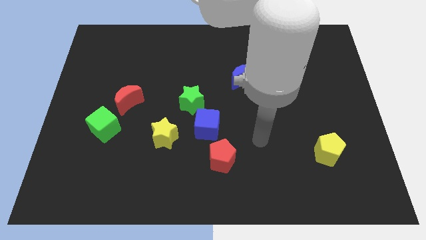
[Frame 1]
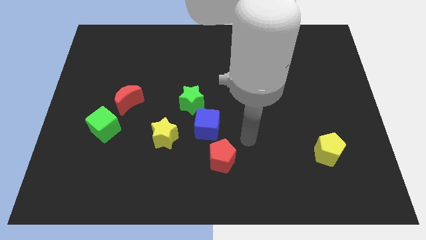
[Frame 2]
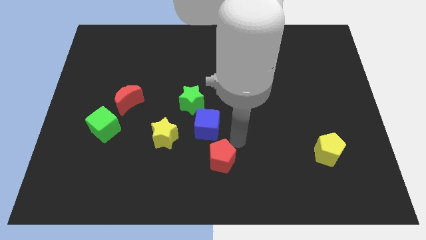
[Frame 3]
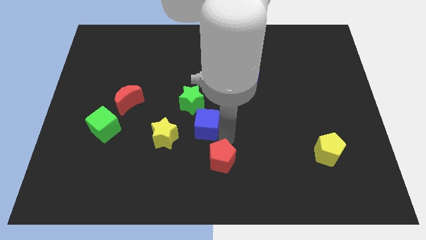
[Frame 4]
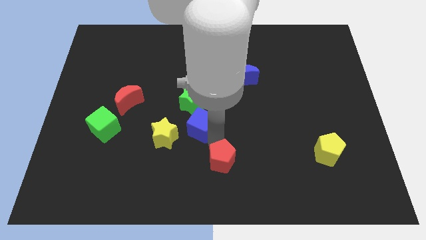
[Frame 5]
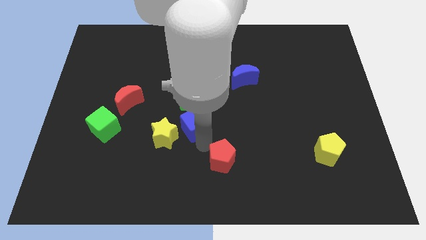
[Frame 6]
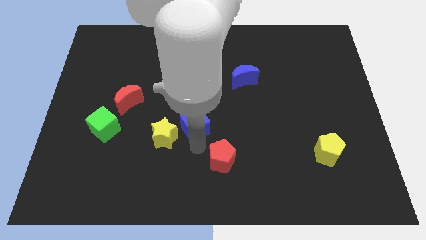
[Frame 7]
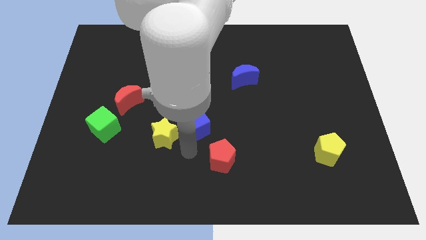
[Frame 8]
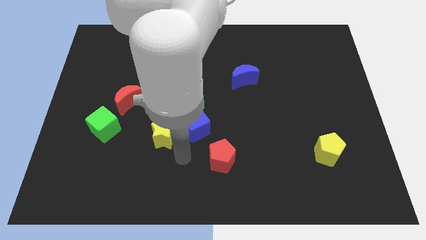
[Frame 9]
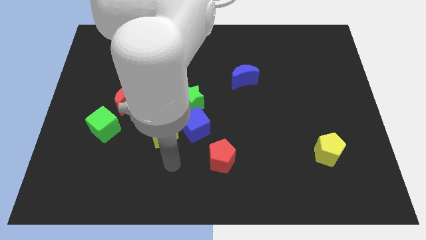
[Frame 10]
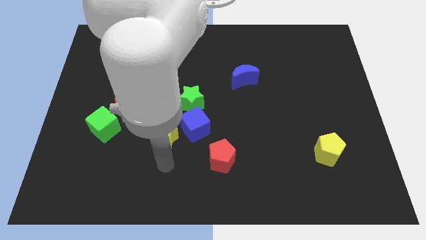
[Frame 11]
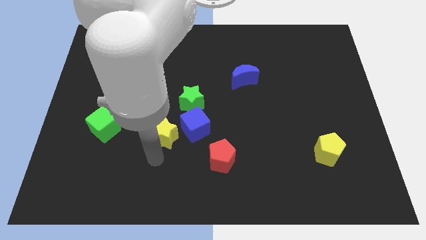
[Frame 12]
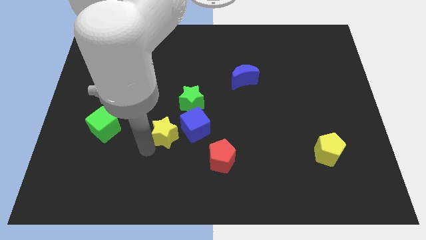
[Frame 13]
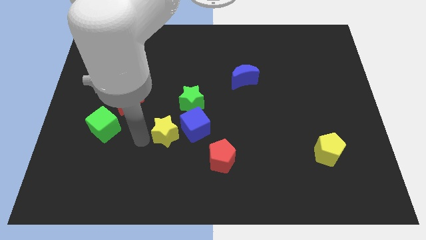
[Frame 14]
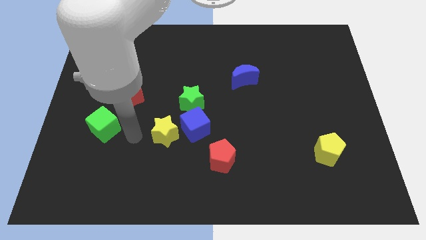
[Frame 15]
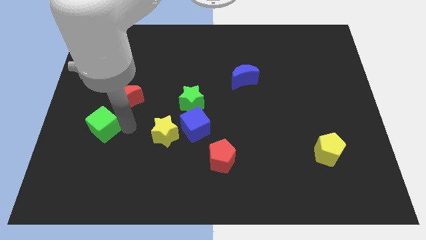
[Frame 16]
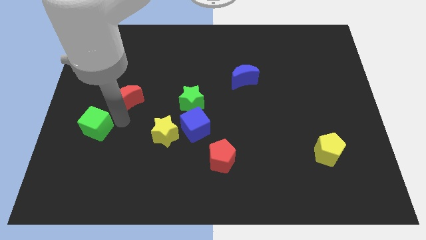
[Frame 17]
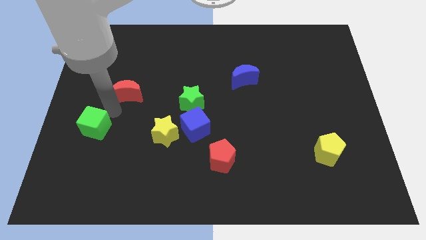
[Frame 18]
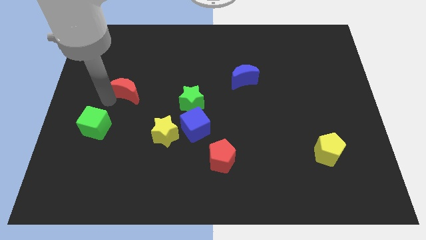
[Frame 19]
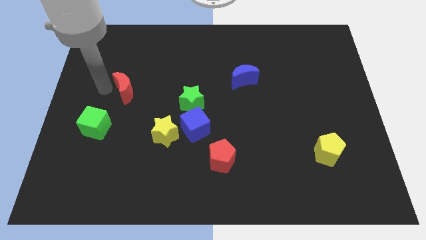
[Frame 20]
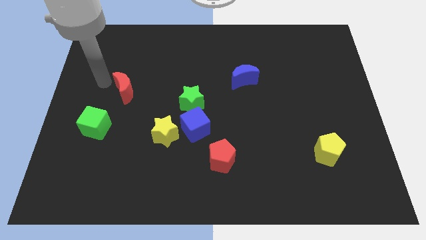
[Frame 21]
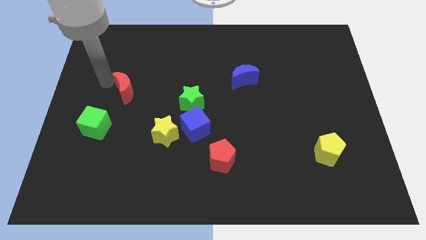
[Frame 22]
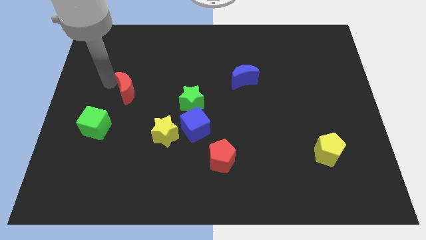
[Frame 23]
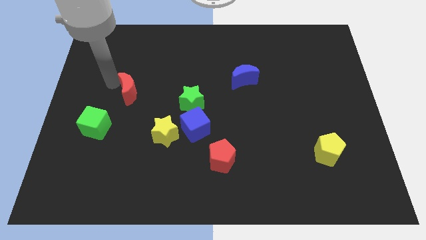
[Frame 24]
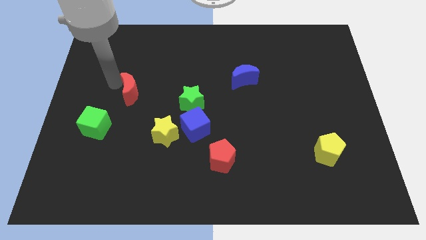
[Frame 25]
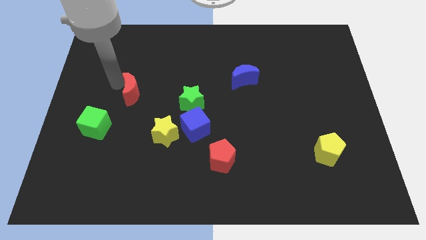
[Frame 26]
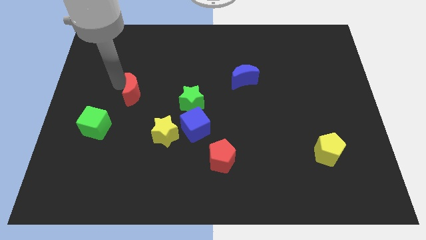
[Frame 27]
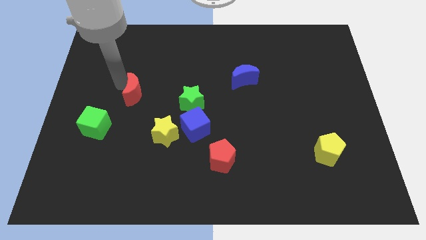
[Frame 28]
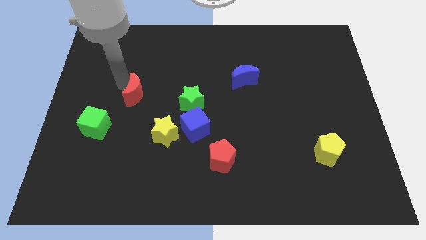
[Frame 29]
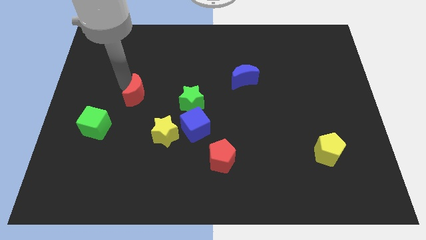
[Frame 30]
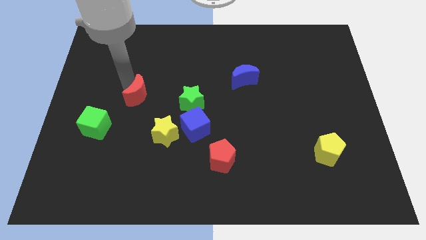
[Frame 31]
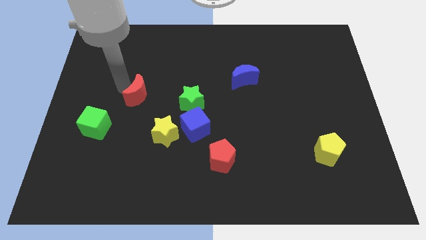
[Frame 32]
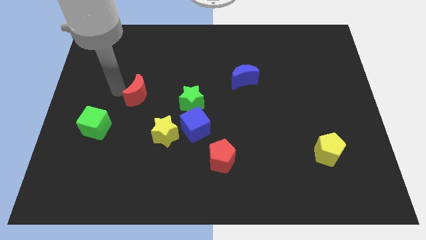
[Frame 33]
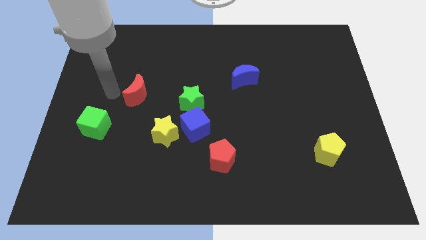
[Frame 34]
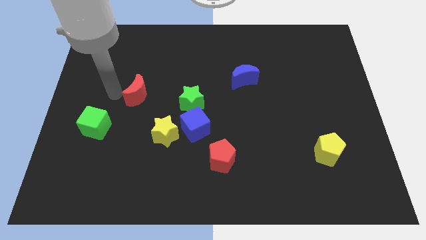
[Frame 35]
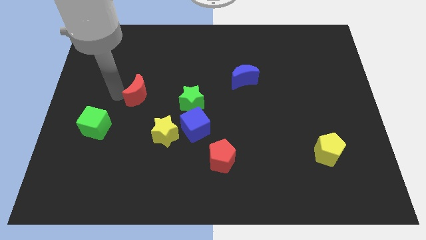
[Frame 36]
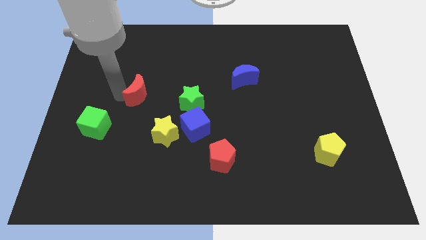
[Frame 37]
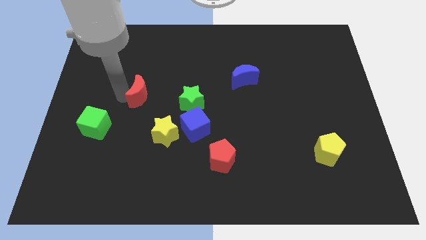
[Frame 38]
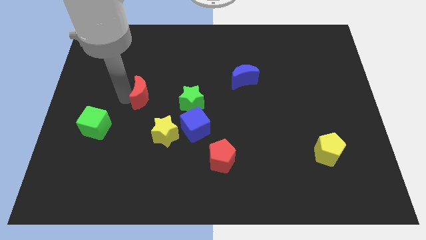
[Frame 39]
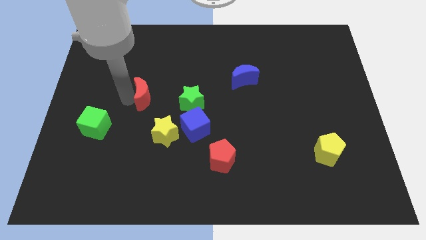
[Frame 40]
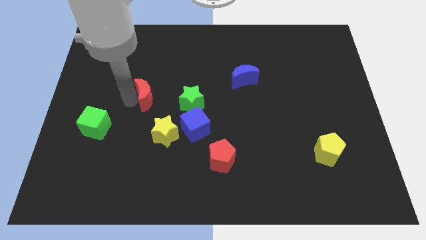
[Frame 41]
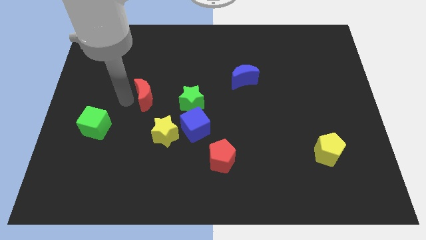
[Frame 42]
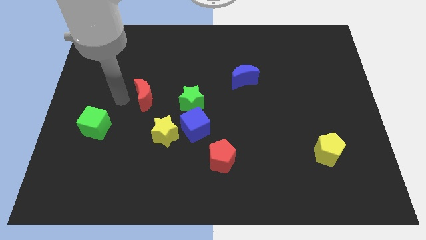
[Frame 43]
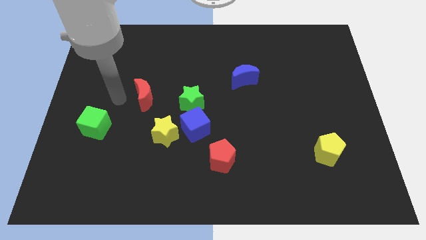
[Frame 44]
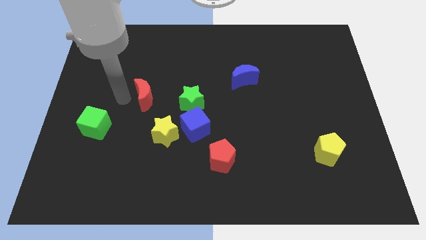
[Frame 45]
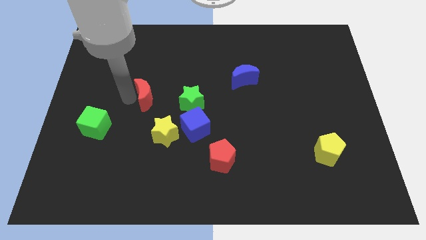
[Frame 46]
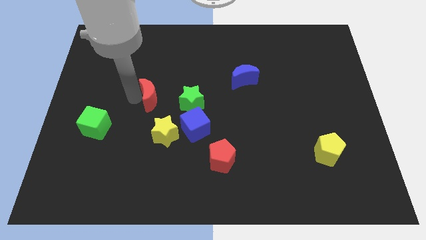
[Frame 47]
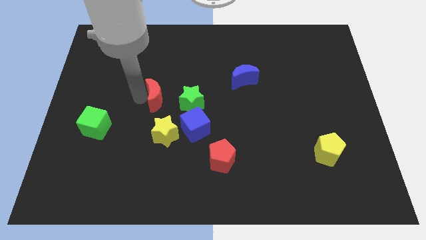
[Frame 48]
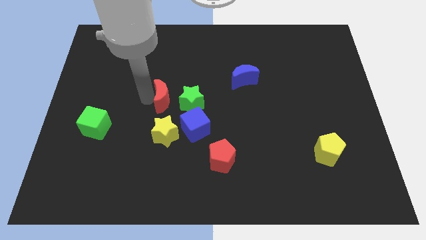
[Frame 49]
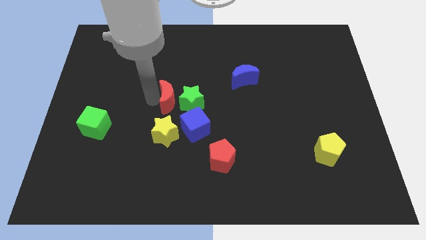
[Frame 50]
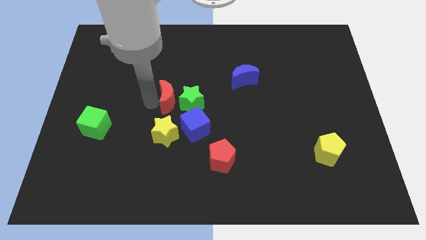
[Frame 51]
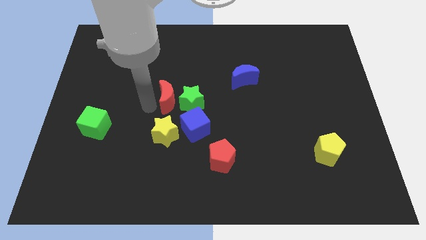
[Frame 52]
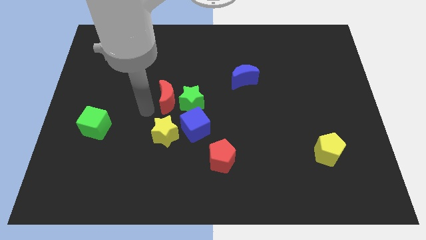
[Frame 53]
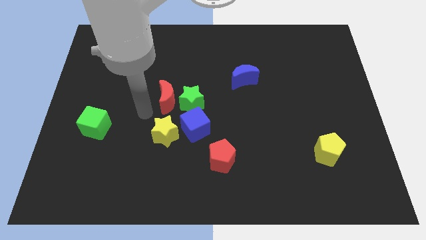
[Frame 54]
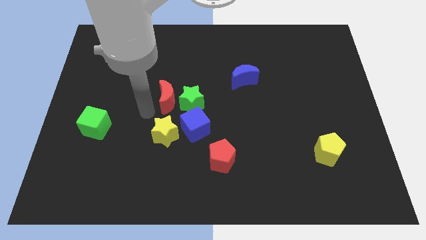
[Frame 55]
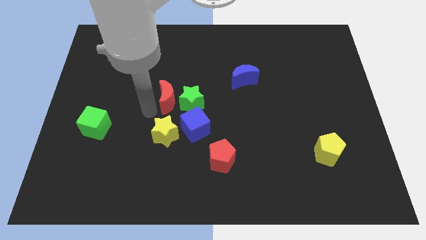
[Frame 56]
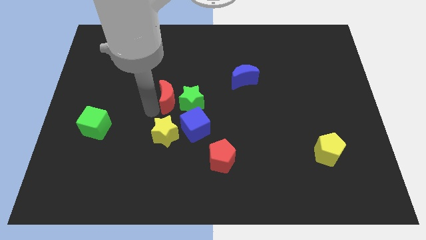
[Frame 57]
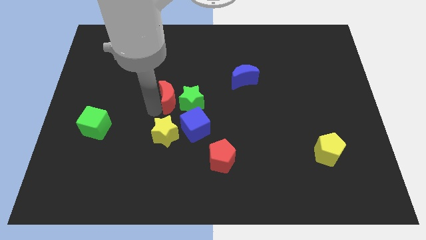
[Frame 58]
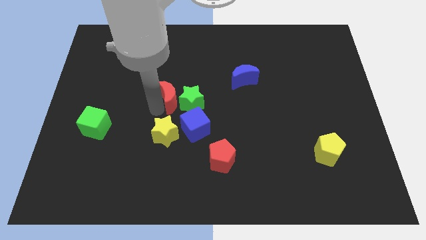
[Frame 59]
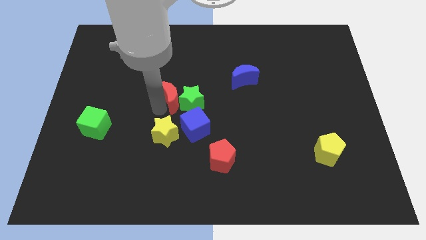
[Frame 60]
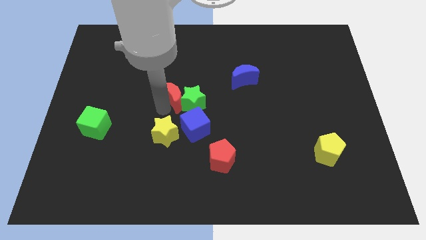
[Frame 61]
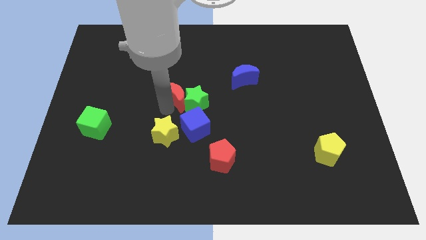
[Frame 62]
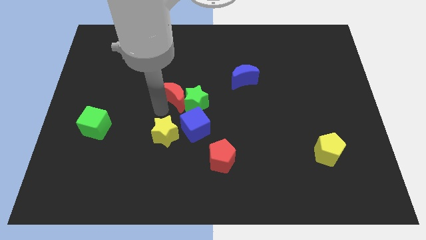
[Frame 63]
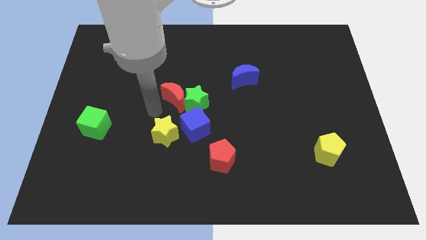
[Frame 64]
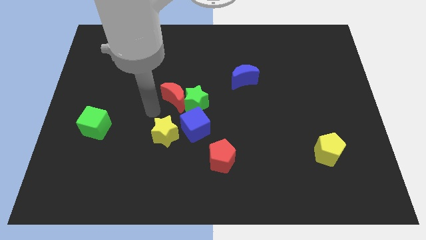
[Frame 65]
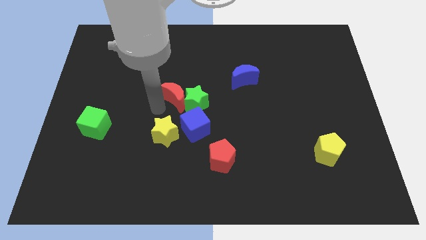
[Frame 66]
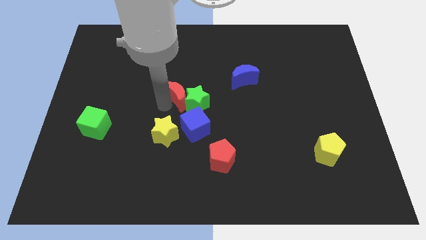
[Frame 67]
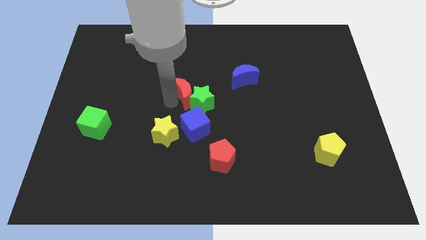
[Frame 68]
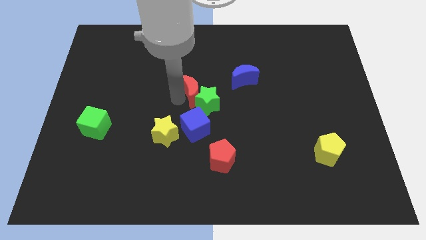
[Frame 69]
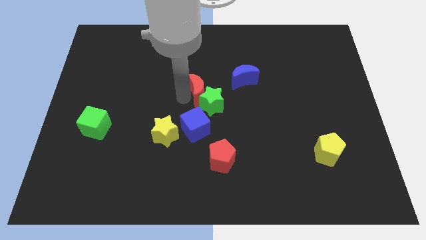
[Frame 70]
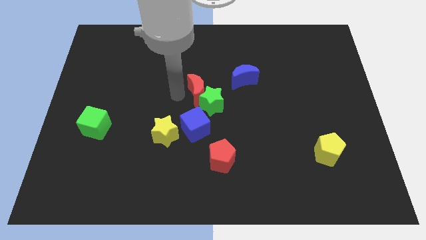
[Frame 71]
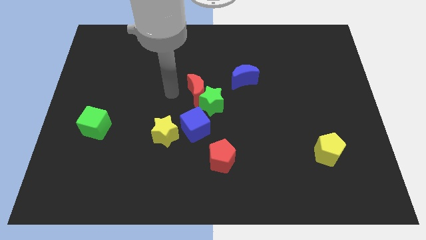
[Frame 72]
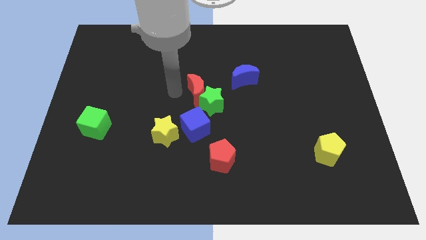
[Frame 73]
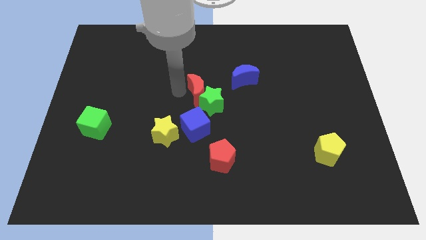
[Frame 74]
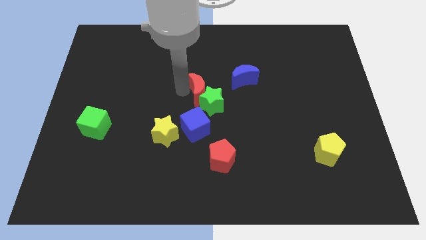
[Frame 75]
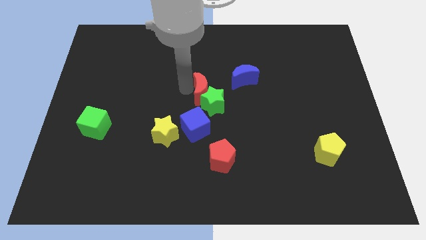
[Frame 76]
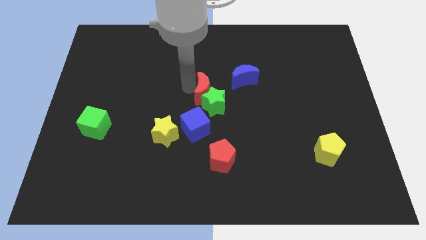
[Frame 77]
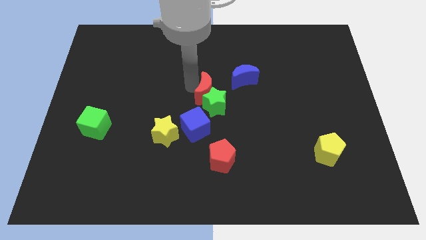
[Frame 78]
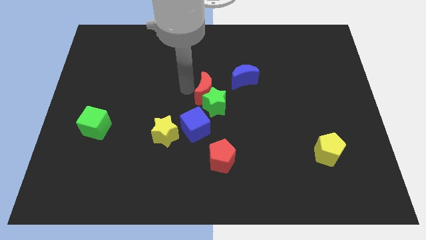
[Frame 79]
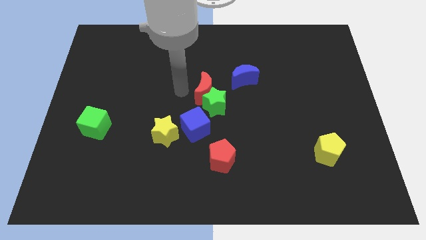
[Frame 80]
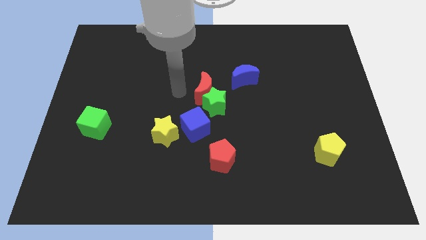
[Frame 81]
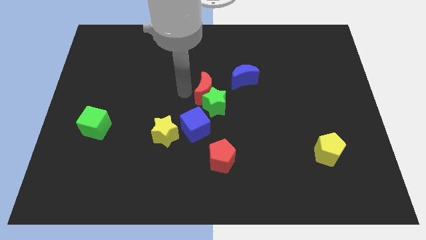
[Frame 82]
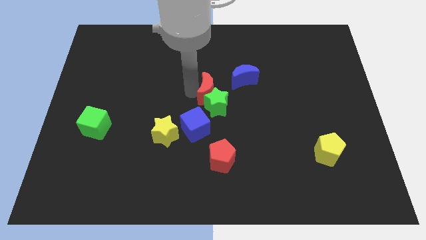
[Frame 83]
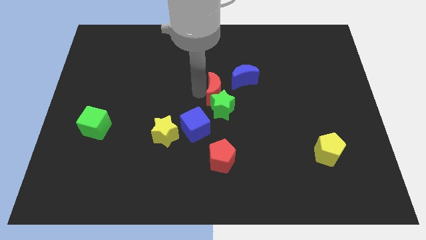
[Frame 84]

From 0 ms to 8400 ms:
slide the red moon to the right
